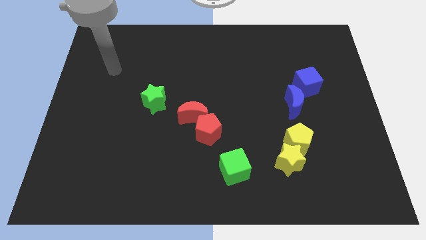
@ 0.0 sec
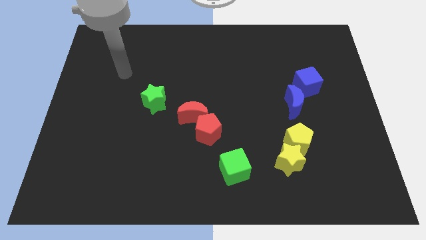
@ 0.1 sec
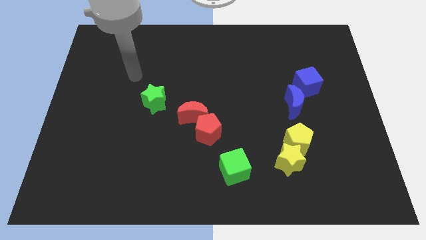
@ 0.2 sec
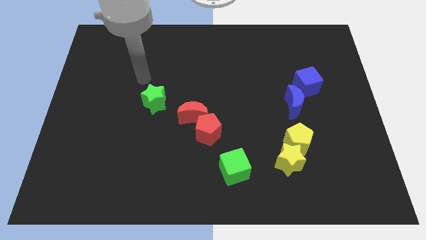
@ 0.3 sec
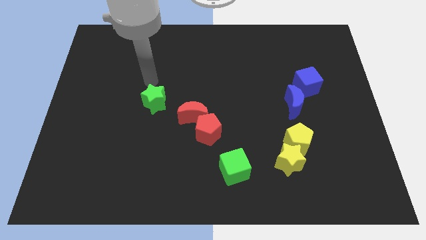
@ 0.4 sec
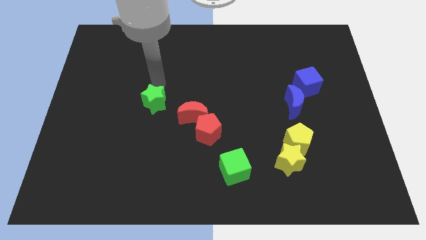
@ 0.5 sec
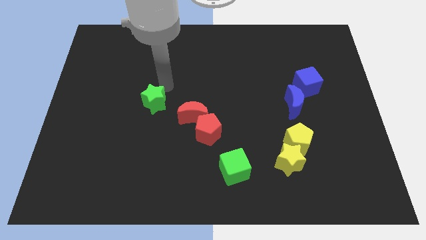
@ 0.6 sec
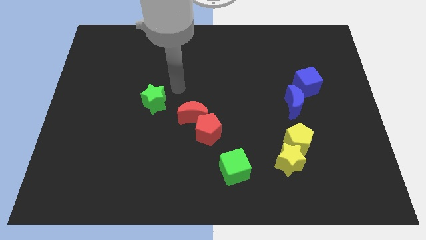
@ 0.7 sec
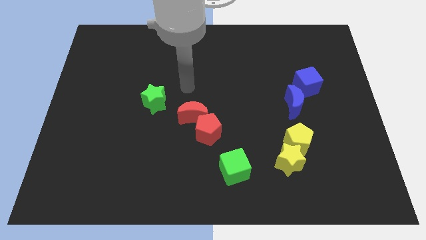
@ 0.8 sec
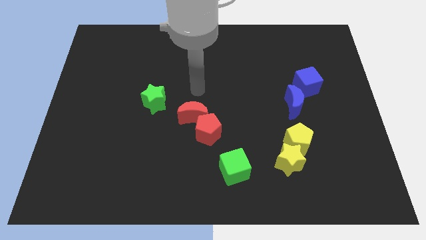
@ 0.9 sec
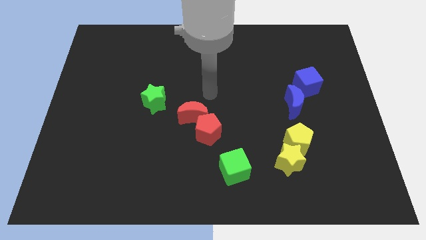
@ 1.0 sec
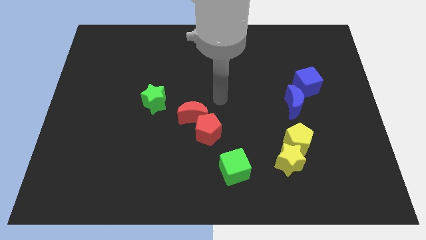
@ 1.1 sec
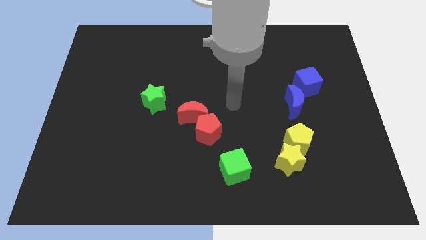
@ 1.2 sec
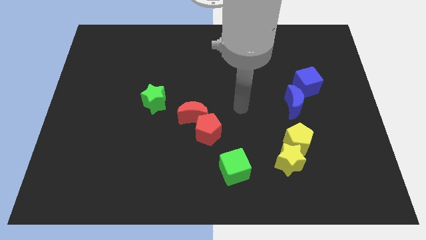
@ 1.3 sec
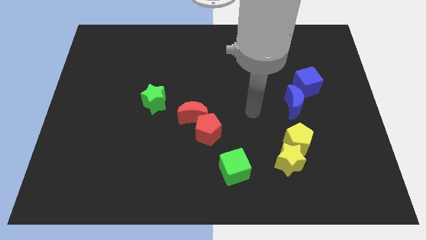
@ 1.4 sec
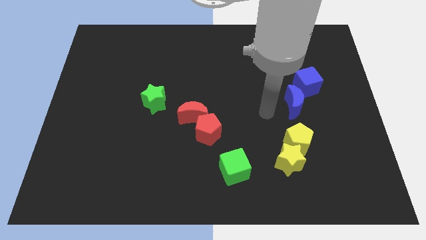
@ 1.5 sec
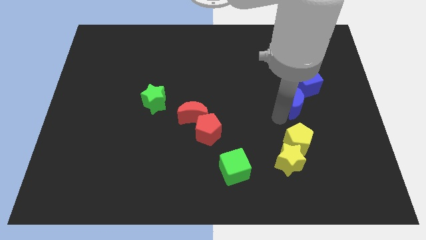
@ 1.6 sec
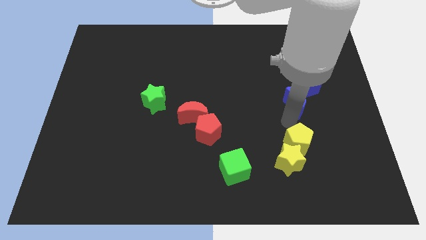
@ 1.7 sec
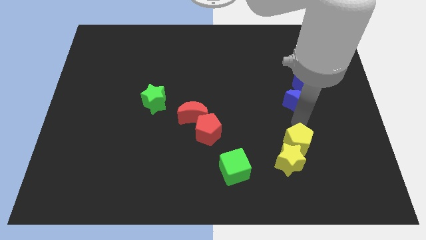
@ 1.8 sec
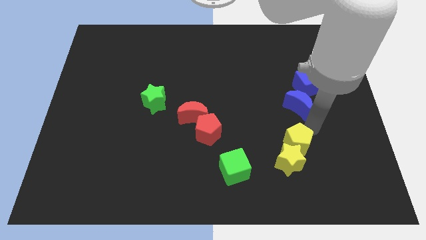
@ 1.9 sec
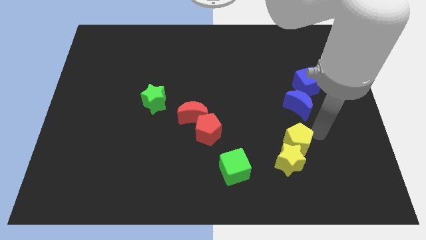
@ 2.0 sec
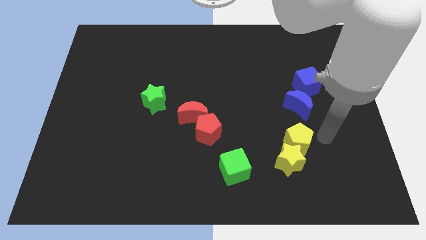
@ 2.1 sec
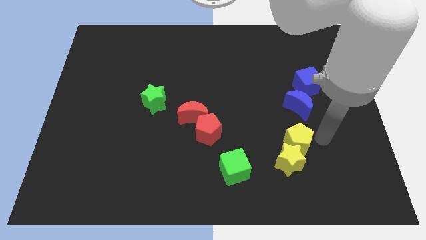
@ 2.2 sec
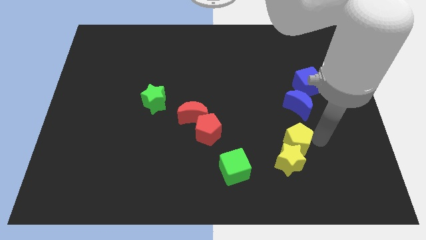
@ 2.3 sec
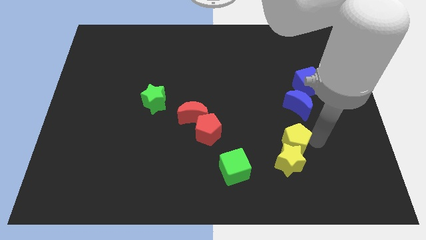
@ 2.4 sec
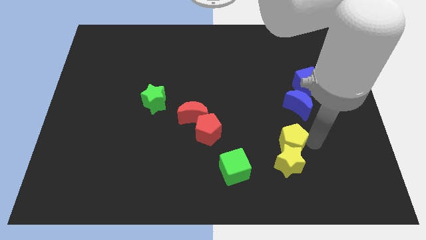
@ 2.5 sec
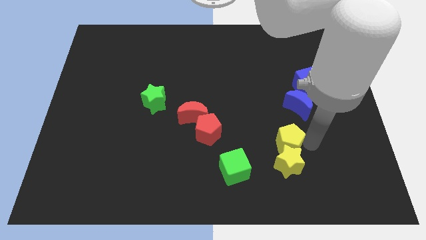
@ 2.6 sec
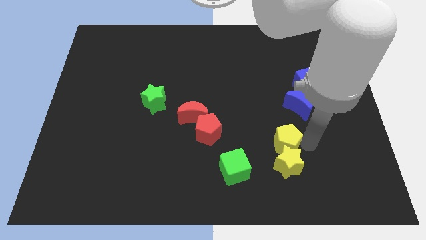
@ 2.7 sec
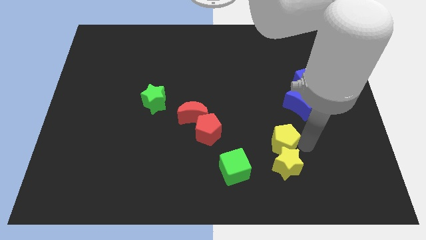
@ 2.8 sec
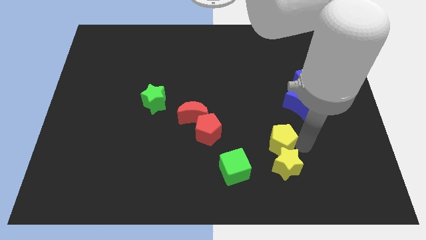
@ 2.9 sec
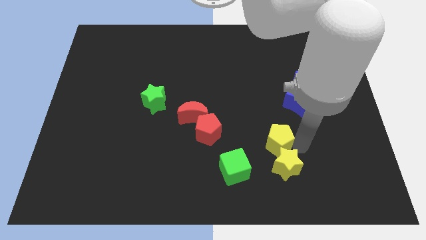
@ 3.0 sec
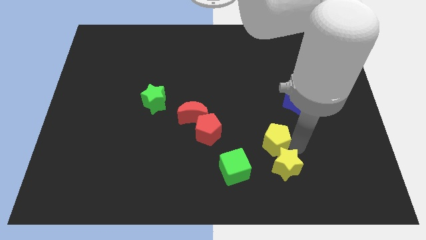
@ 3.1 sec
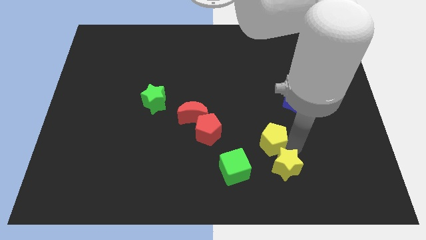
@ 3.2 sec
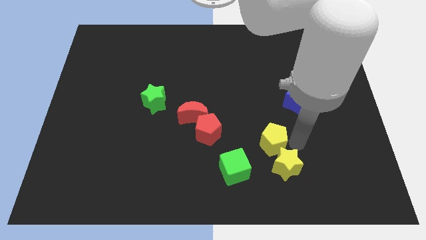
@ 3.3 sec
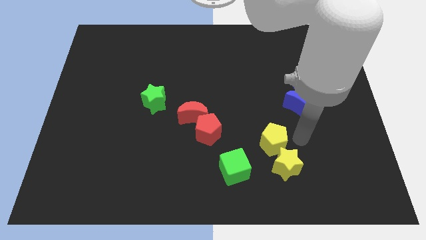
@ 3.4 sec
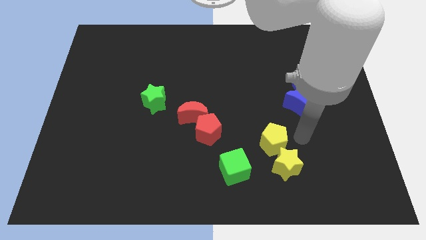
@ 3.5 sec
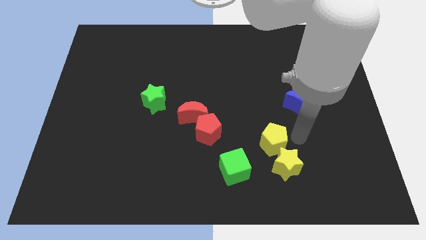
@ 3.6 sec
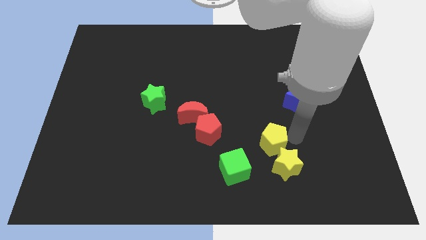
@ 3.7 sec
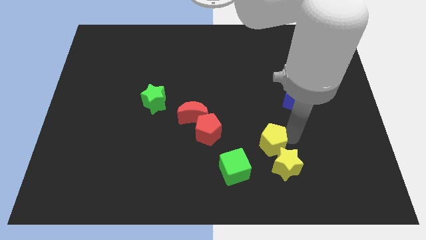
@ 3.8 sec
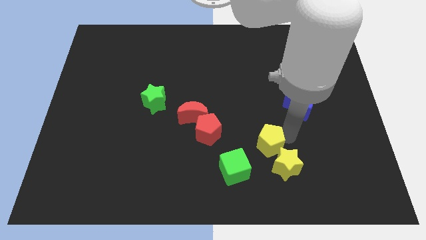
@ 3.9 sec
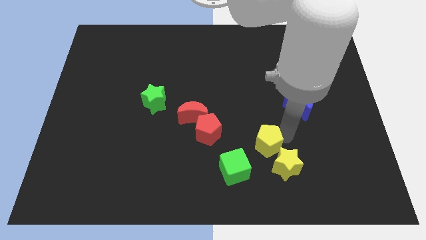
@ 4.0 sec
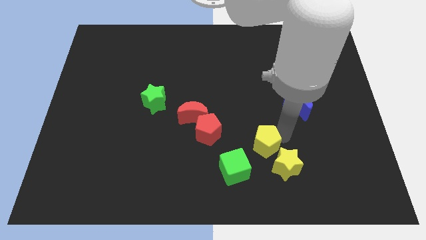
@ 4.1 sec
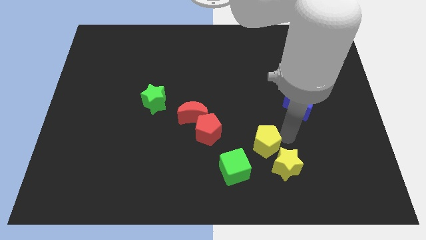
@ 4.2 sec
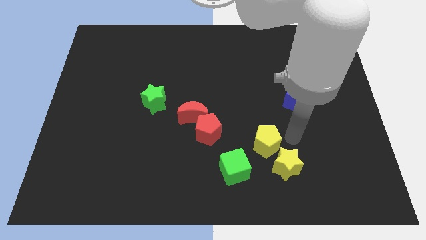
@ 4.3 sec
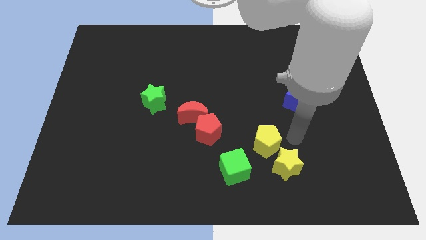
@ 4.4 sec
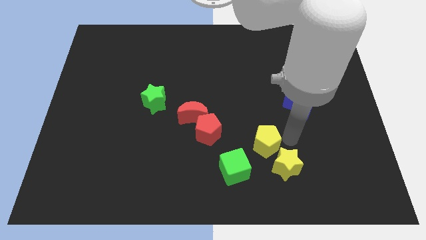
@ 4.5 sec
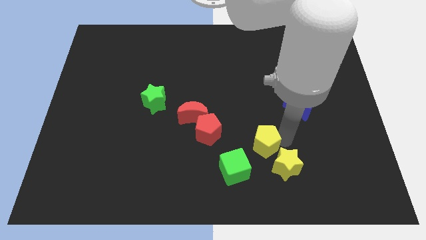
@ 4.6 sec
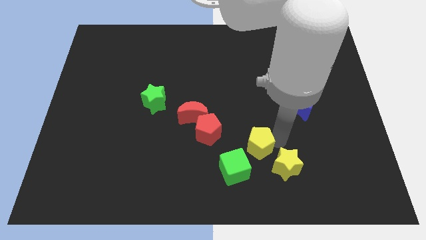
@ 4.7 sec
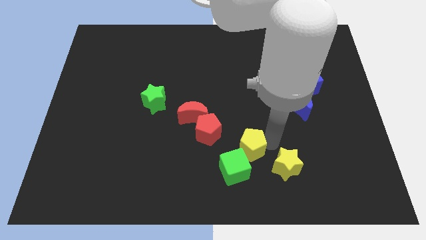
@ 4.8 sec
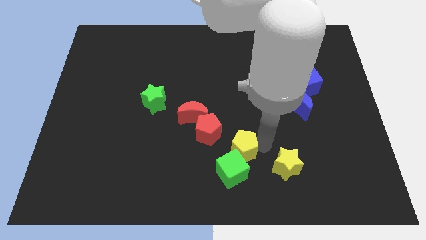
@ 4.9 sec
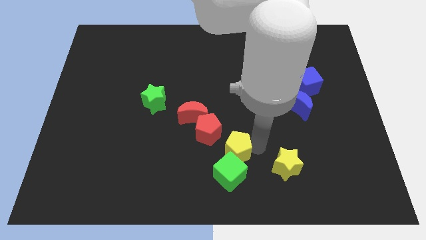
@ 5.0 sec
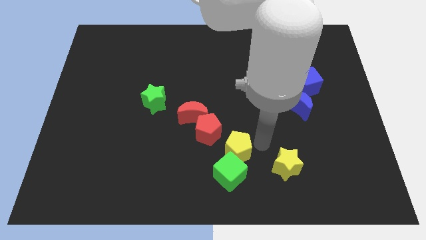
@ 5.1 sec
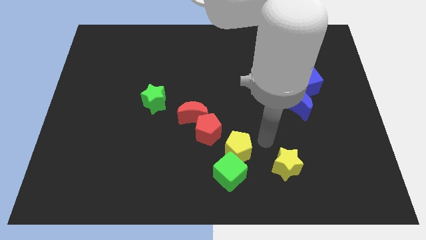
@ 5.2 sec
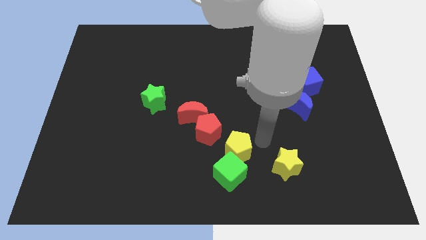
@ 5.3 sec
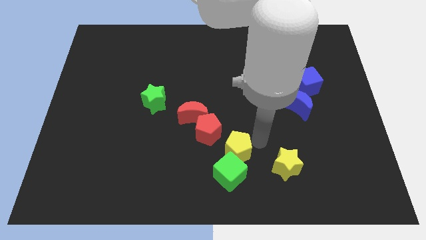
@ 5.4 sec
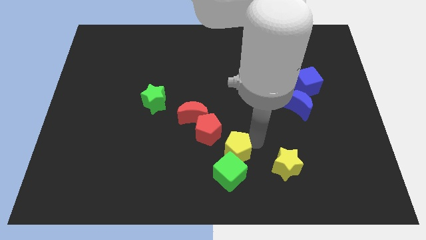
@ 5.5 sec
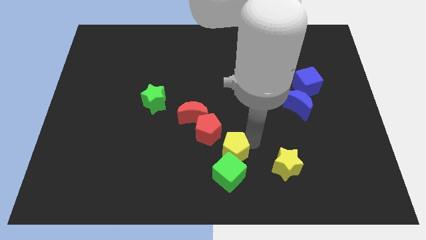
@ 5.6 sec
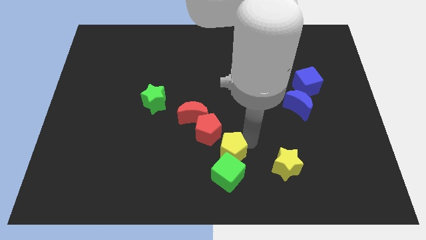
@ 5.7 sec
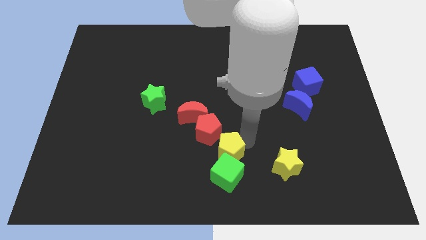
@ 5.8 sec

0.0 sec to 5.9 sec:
push the yellow pentagon to the bottom side of the red pentagon
